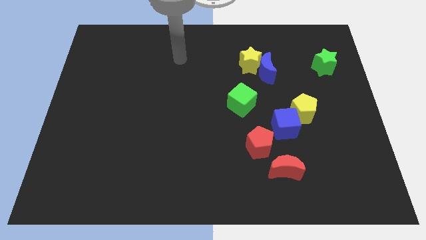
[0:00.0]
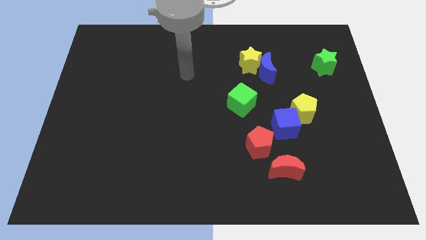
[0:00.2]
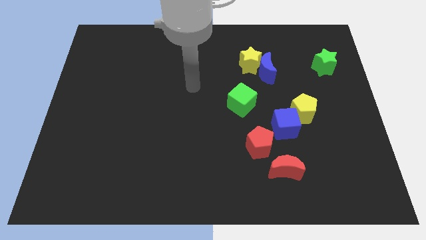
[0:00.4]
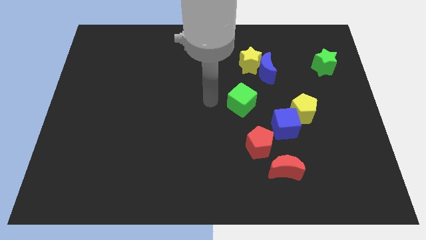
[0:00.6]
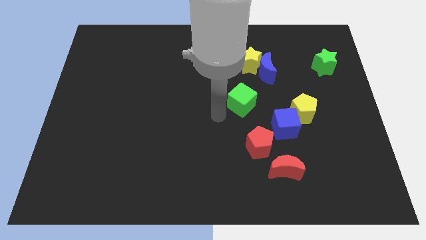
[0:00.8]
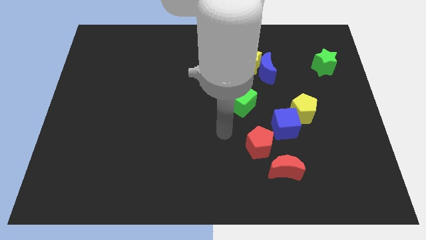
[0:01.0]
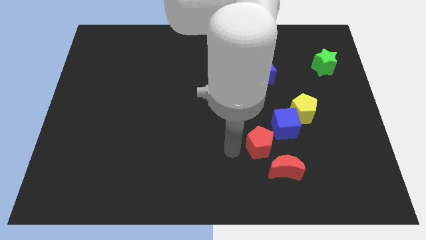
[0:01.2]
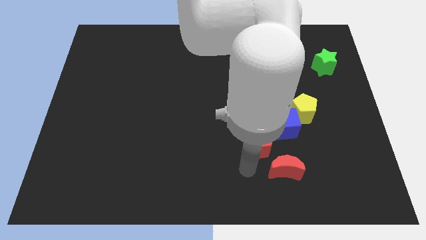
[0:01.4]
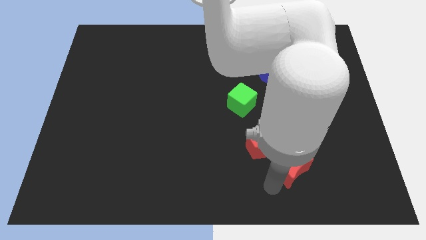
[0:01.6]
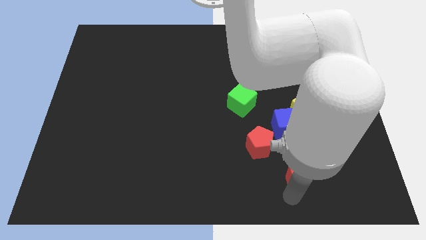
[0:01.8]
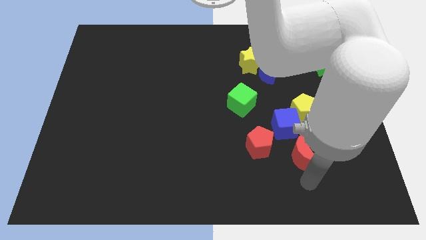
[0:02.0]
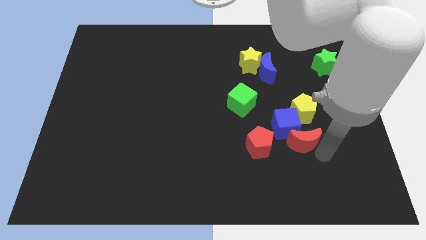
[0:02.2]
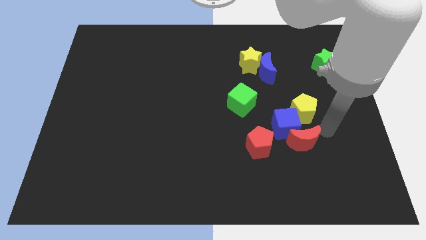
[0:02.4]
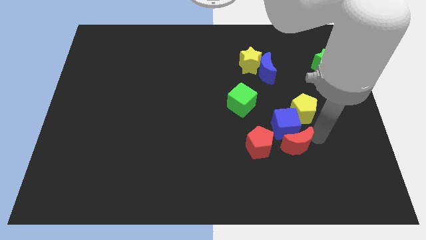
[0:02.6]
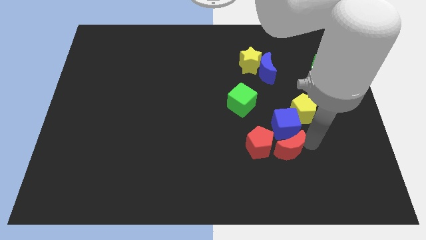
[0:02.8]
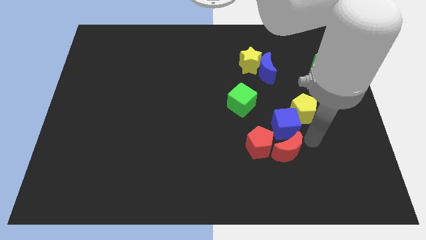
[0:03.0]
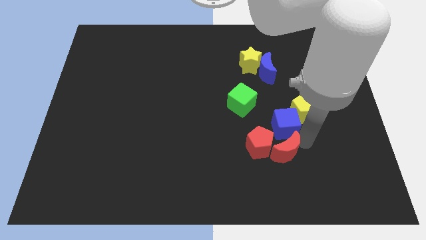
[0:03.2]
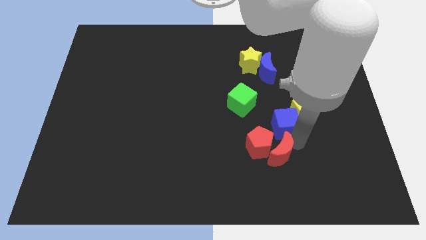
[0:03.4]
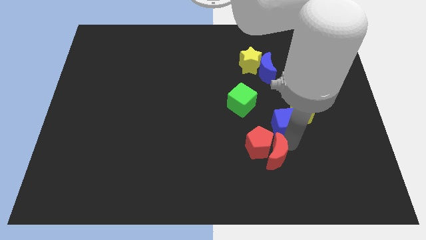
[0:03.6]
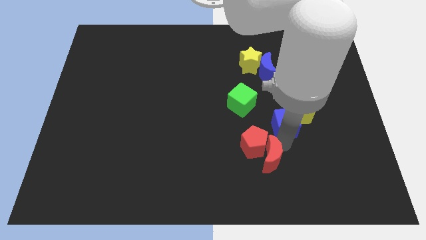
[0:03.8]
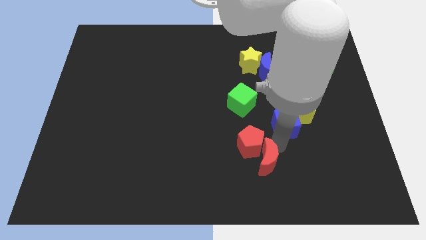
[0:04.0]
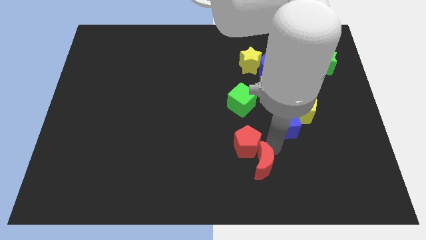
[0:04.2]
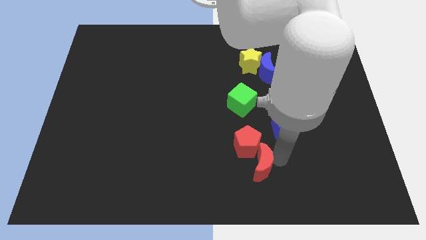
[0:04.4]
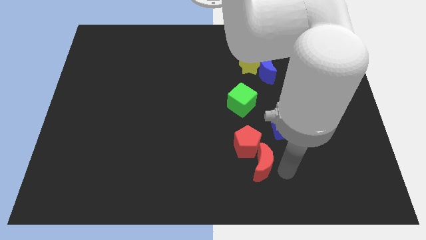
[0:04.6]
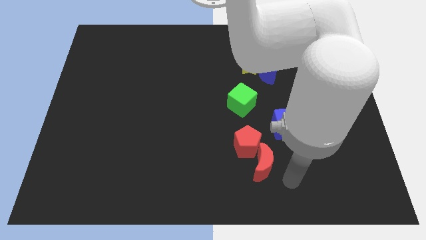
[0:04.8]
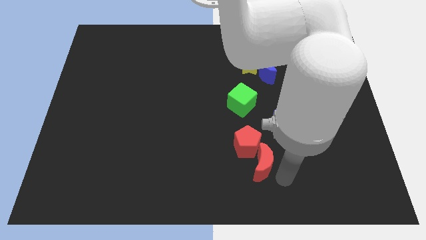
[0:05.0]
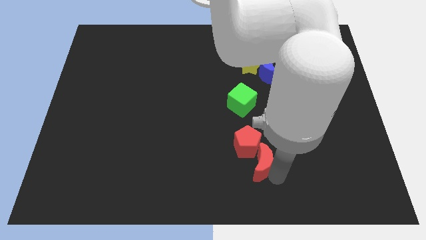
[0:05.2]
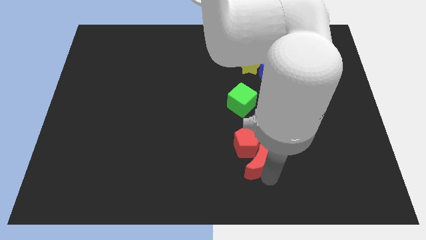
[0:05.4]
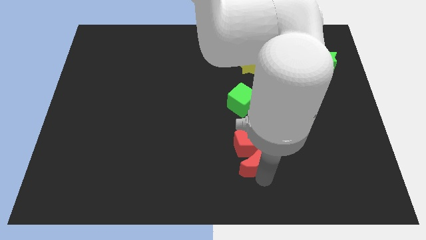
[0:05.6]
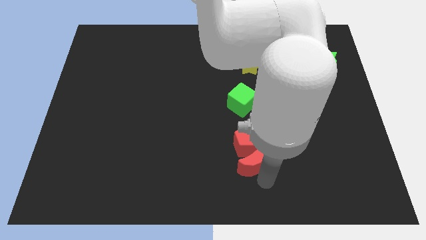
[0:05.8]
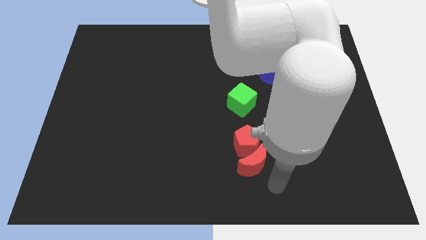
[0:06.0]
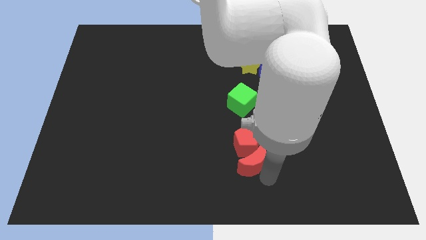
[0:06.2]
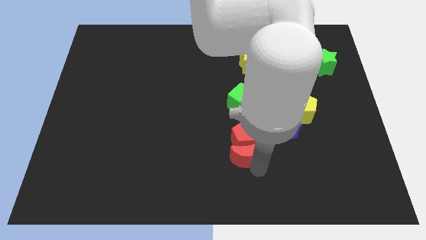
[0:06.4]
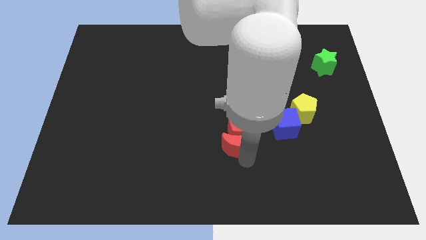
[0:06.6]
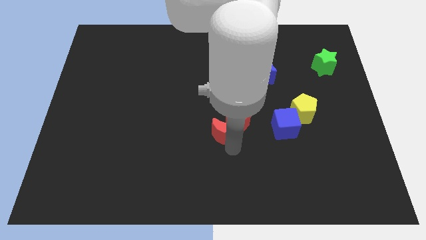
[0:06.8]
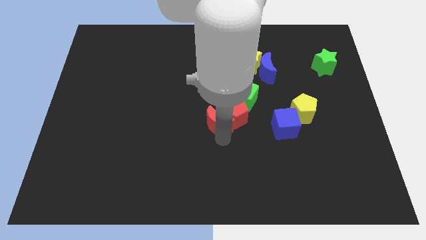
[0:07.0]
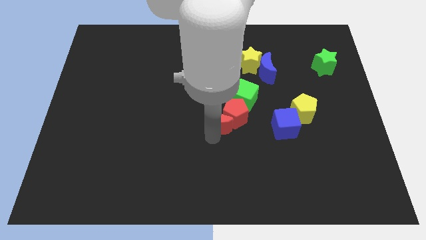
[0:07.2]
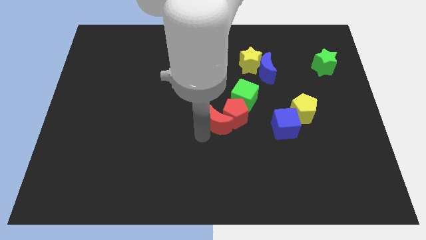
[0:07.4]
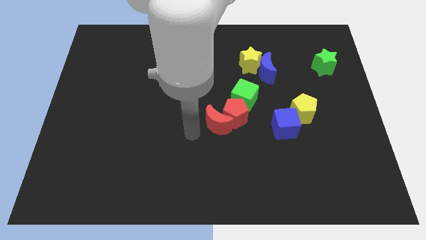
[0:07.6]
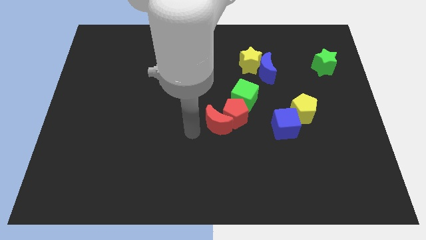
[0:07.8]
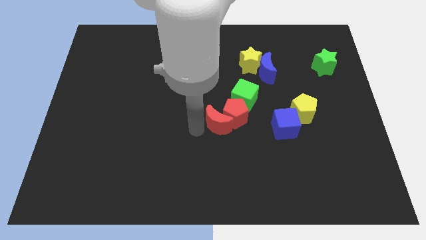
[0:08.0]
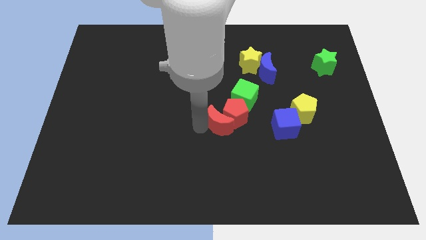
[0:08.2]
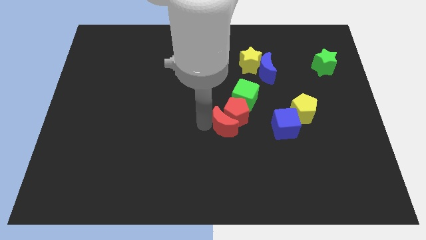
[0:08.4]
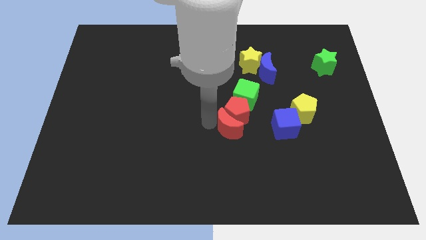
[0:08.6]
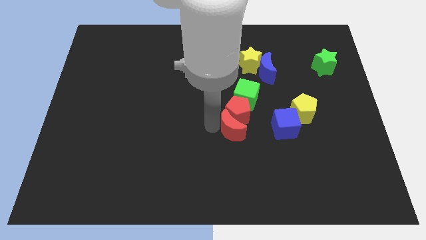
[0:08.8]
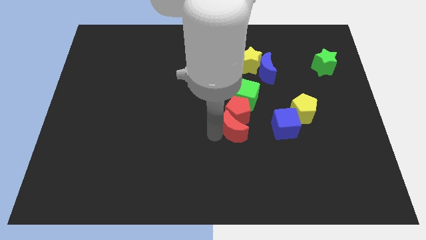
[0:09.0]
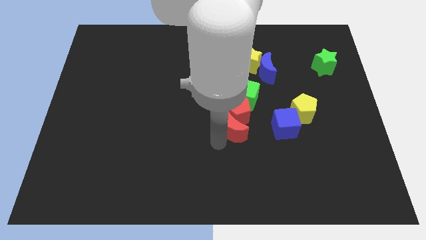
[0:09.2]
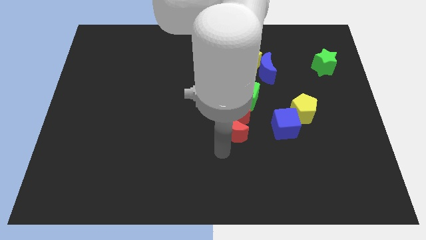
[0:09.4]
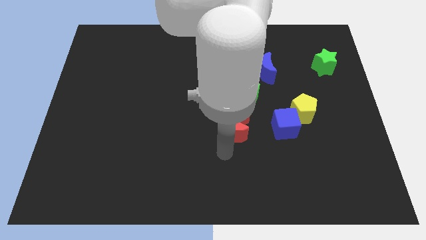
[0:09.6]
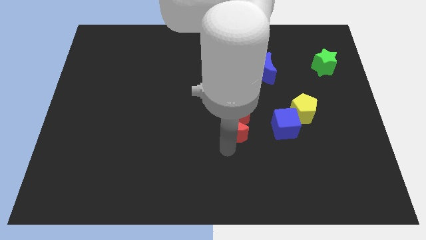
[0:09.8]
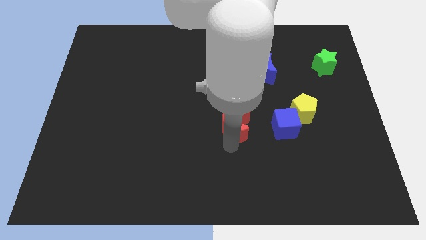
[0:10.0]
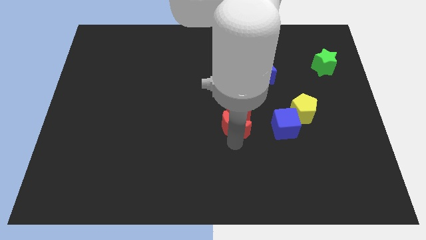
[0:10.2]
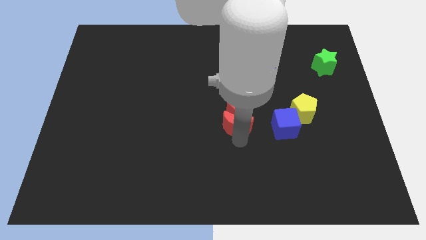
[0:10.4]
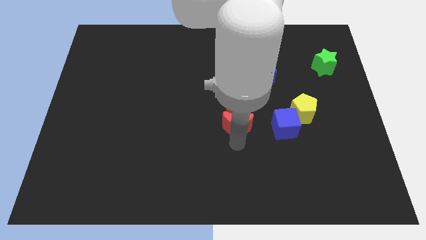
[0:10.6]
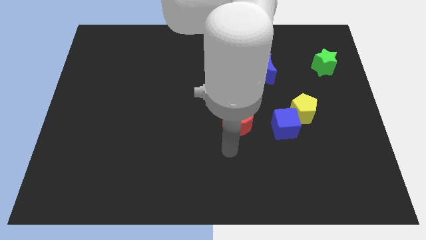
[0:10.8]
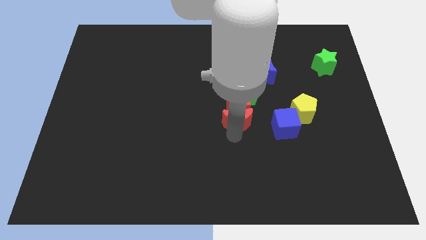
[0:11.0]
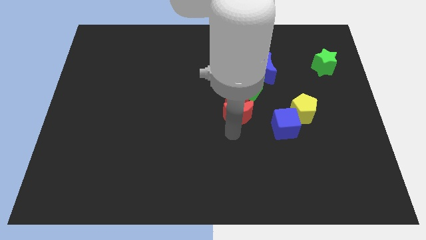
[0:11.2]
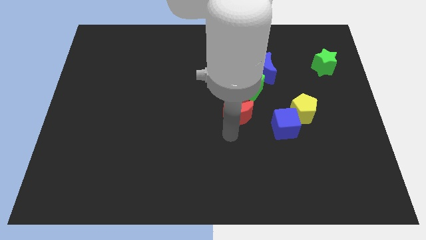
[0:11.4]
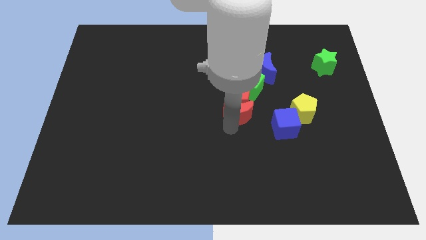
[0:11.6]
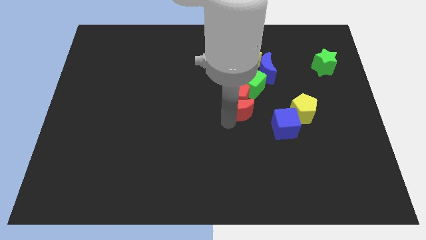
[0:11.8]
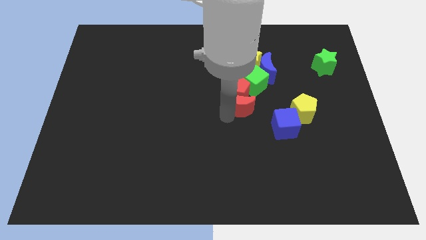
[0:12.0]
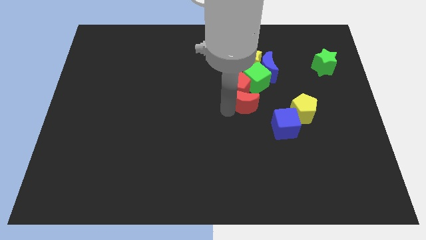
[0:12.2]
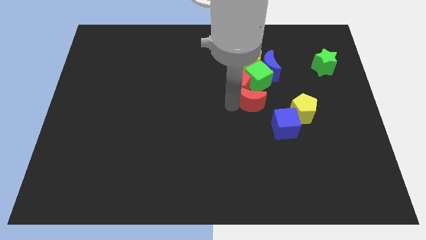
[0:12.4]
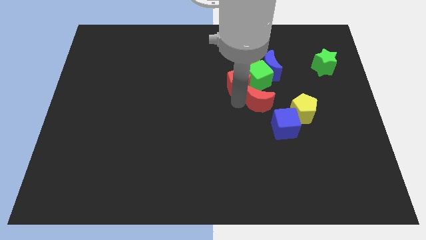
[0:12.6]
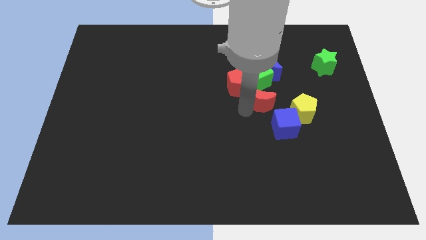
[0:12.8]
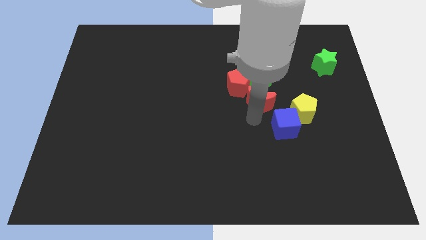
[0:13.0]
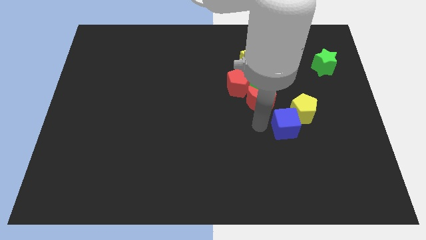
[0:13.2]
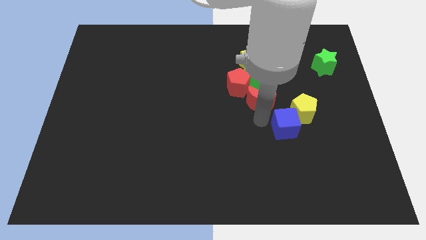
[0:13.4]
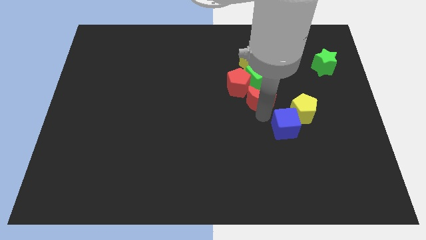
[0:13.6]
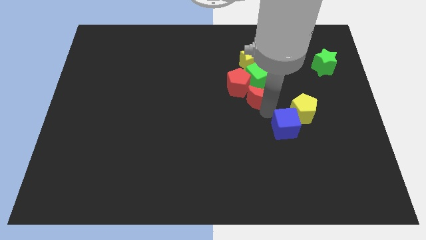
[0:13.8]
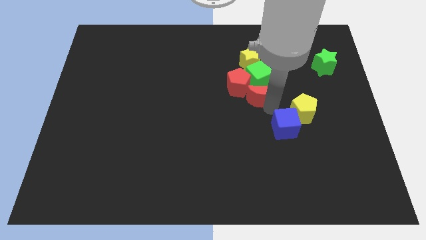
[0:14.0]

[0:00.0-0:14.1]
move the red moon next to the green cube
